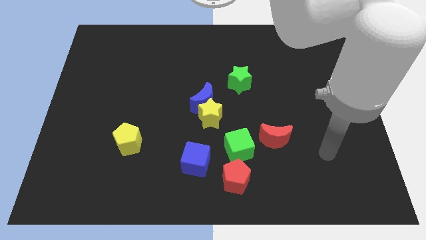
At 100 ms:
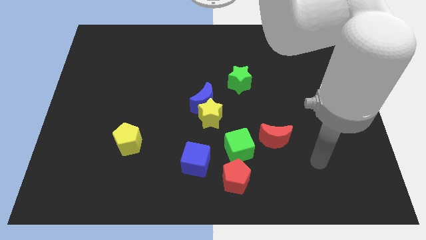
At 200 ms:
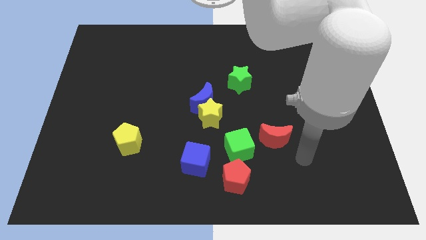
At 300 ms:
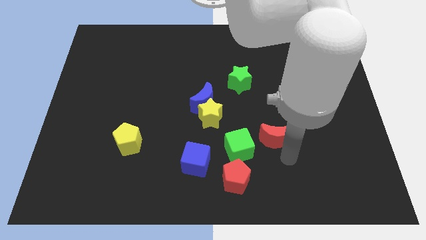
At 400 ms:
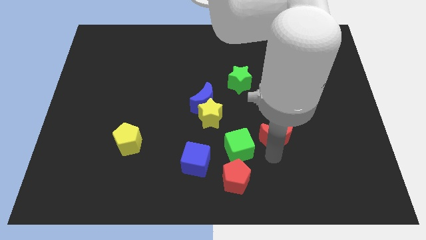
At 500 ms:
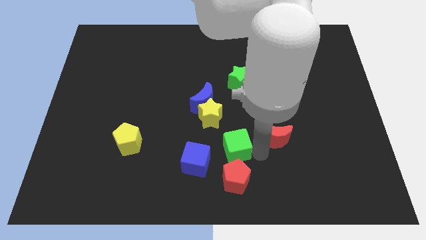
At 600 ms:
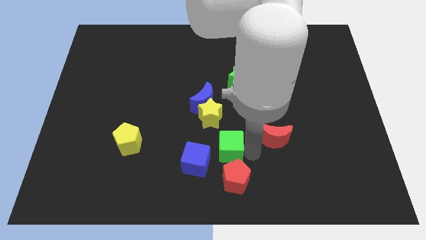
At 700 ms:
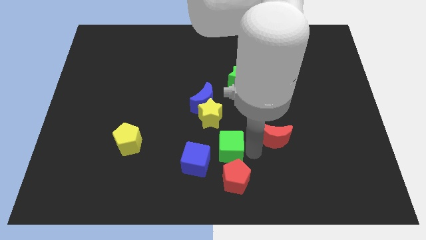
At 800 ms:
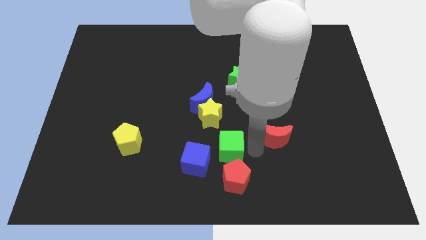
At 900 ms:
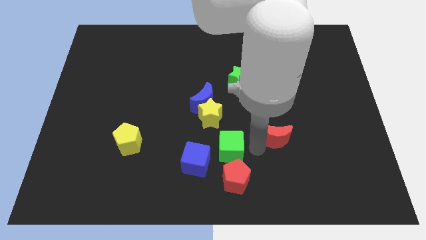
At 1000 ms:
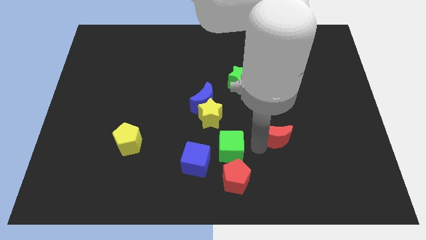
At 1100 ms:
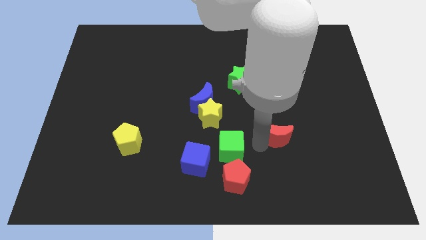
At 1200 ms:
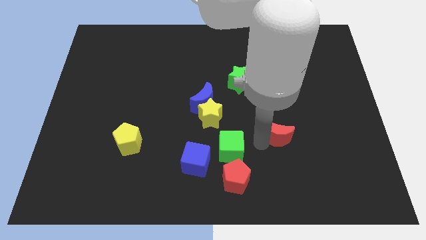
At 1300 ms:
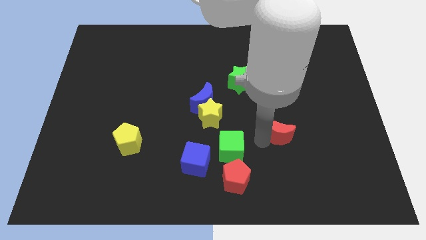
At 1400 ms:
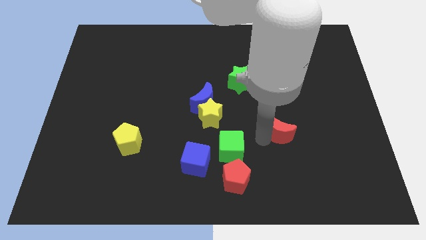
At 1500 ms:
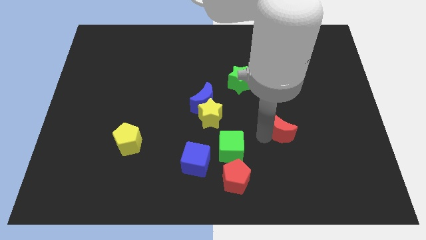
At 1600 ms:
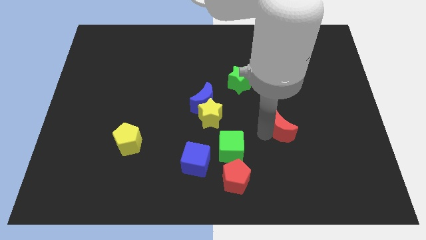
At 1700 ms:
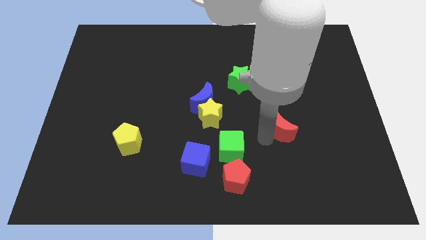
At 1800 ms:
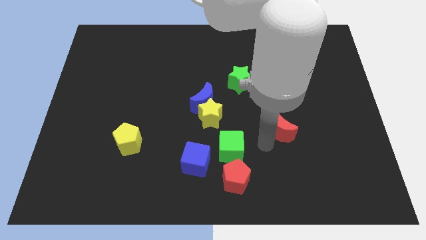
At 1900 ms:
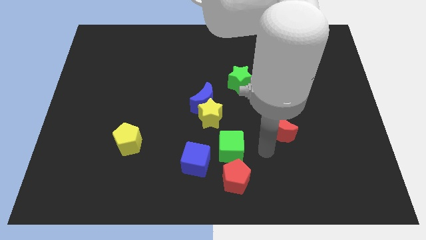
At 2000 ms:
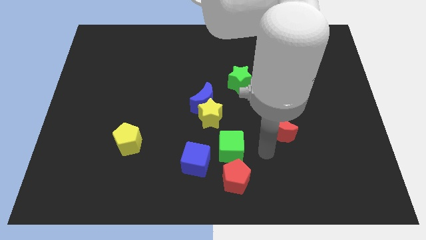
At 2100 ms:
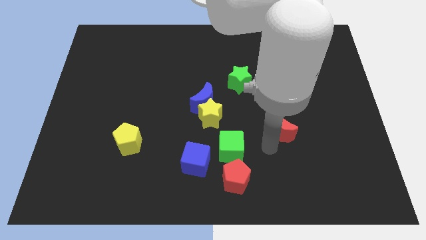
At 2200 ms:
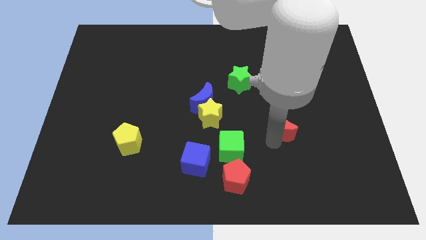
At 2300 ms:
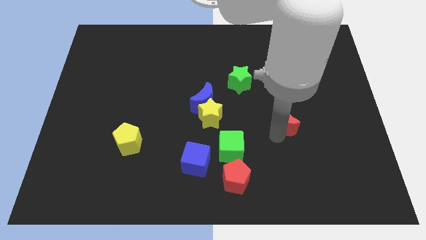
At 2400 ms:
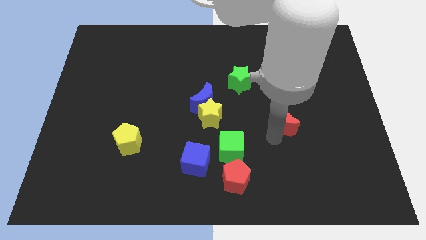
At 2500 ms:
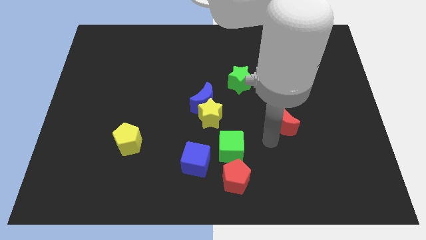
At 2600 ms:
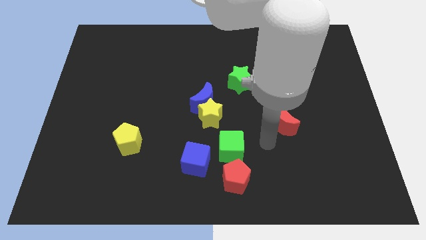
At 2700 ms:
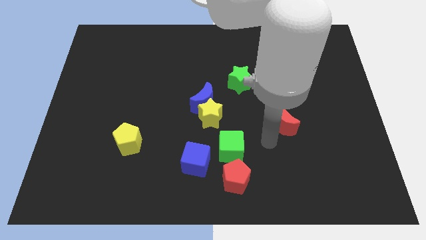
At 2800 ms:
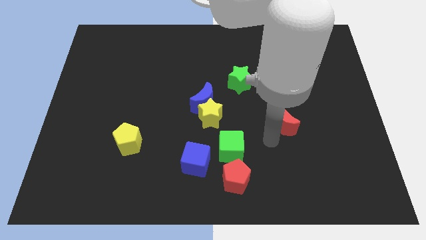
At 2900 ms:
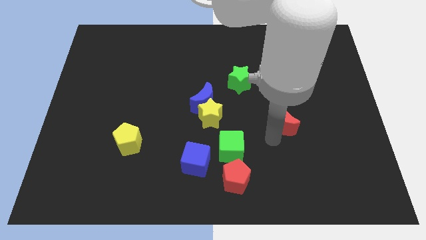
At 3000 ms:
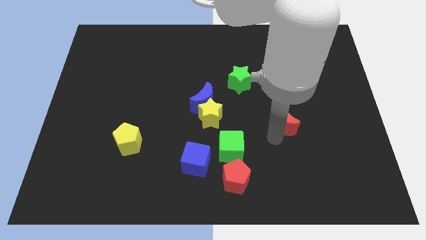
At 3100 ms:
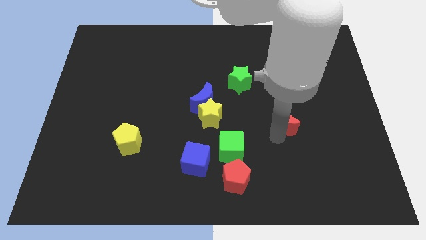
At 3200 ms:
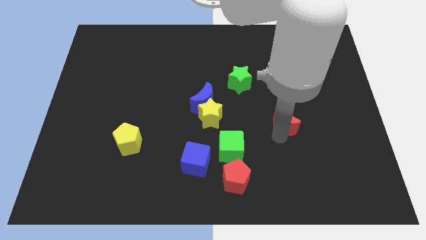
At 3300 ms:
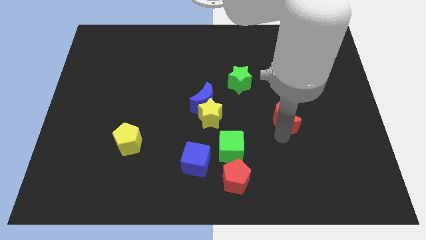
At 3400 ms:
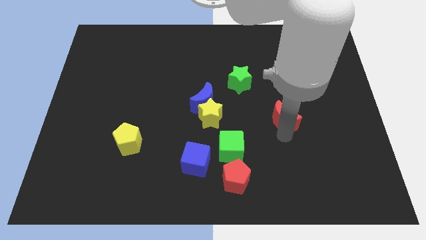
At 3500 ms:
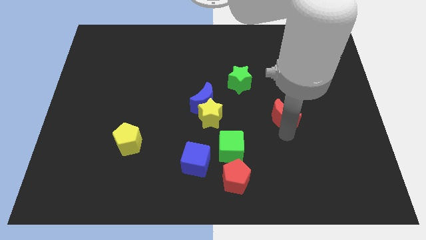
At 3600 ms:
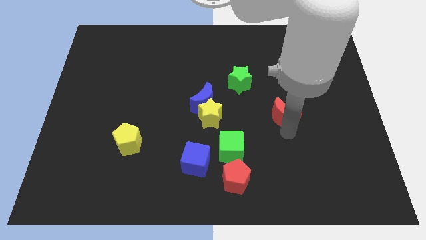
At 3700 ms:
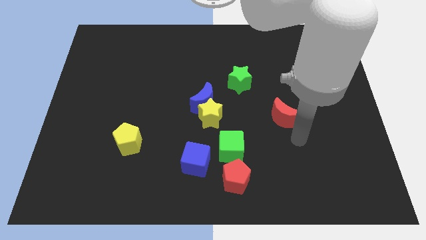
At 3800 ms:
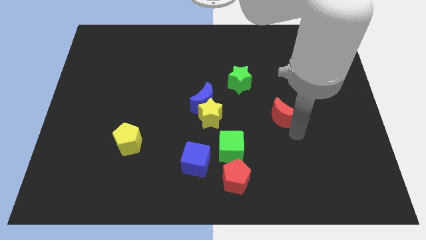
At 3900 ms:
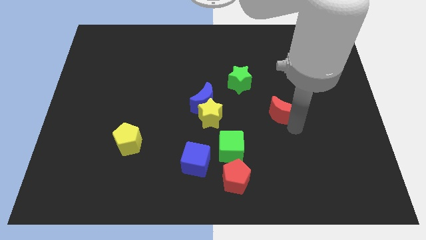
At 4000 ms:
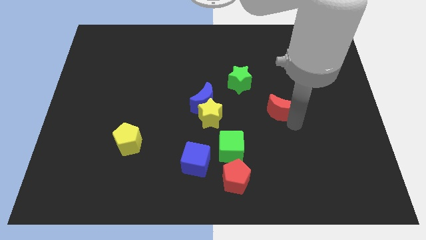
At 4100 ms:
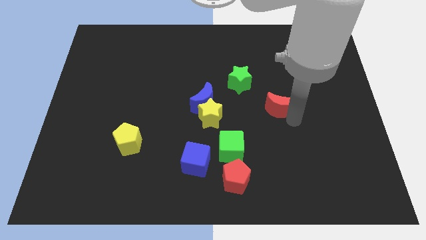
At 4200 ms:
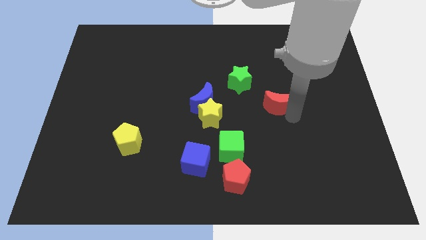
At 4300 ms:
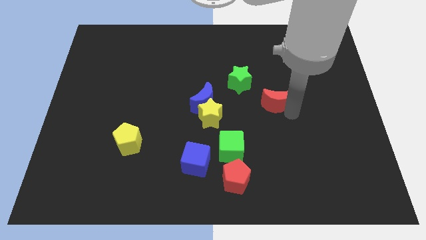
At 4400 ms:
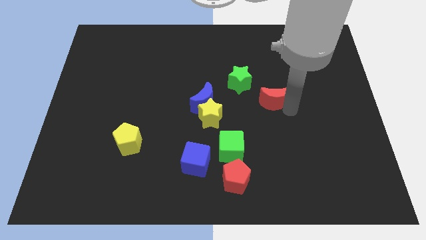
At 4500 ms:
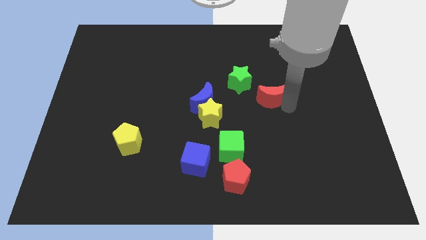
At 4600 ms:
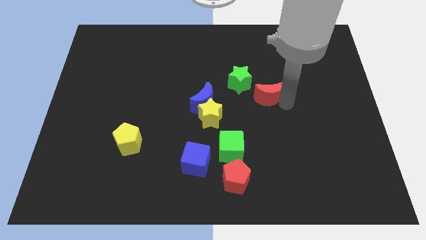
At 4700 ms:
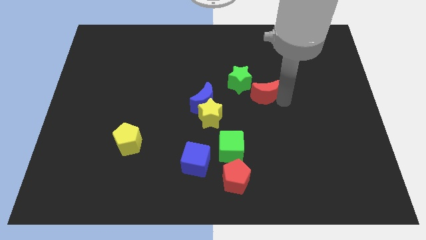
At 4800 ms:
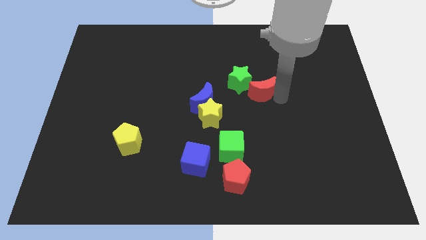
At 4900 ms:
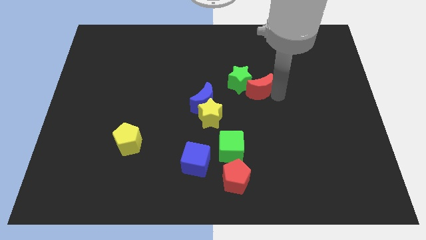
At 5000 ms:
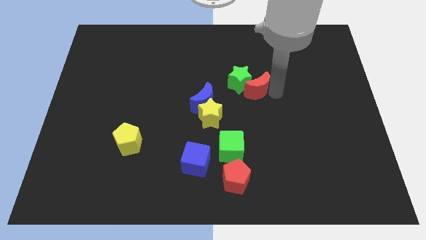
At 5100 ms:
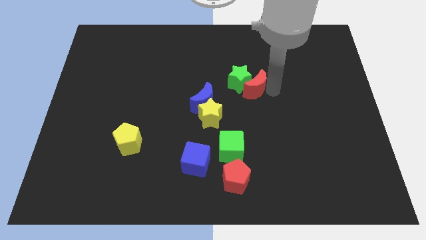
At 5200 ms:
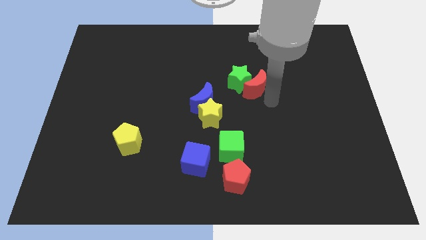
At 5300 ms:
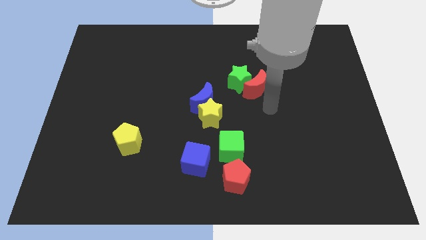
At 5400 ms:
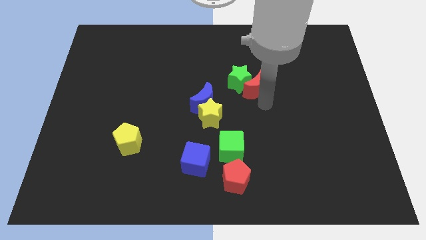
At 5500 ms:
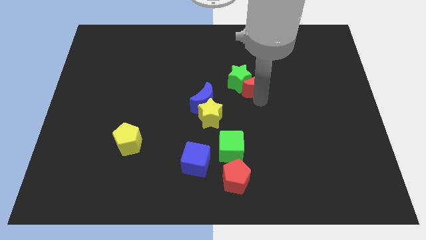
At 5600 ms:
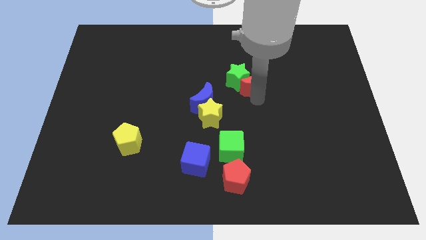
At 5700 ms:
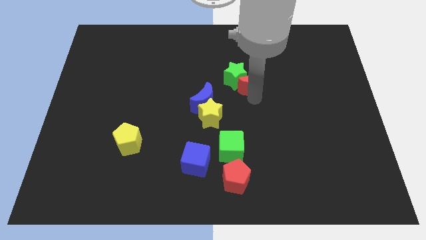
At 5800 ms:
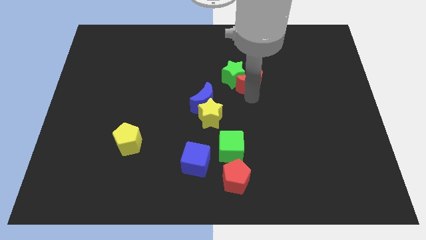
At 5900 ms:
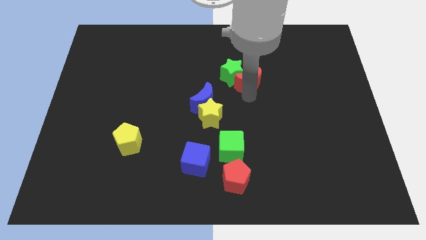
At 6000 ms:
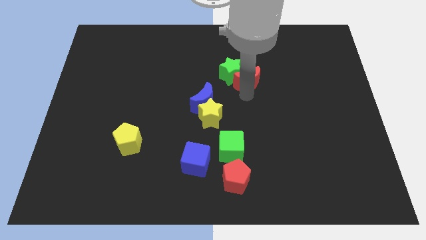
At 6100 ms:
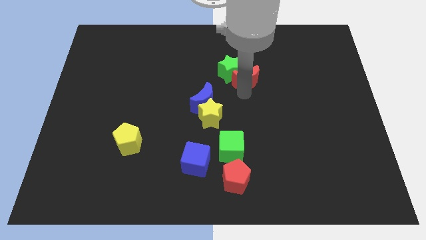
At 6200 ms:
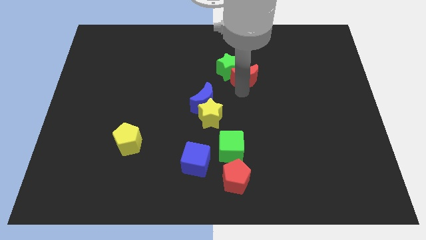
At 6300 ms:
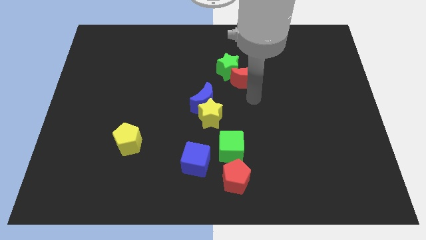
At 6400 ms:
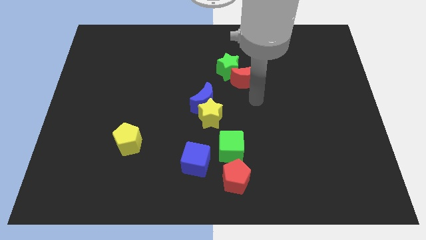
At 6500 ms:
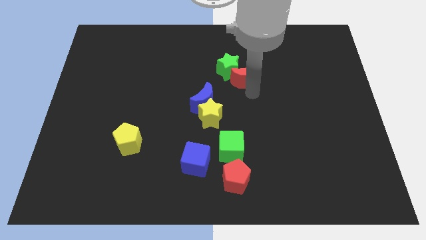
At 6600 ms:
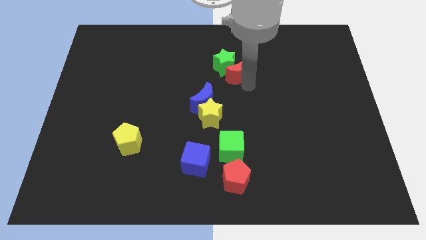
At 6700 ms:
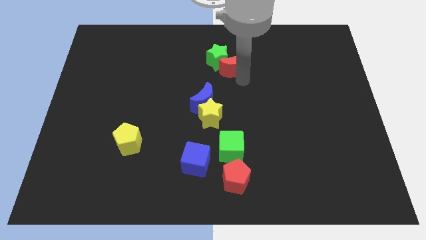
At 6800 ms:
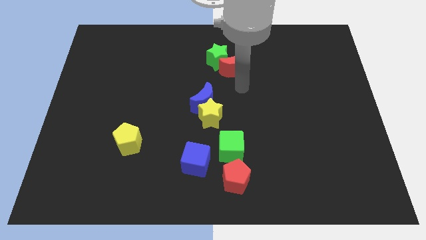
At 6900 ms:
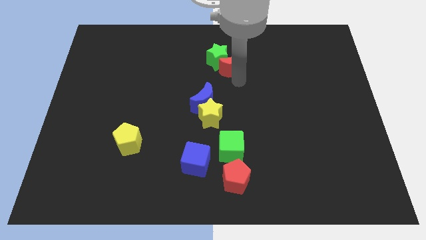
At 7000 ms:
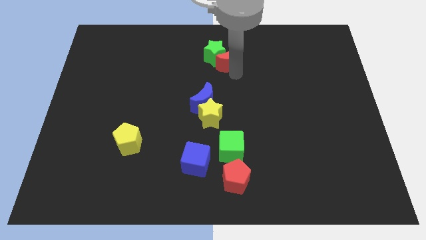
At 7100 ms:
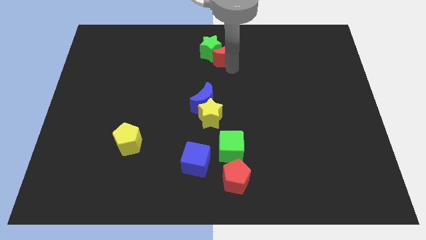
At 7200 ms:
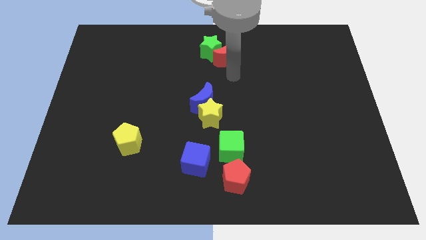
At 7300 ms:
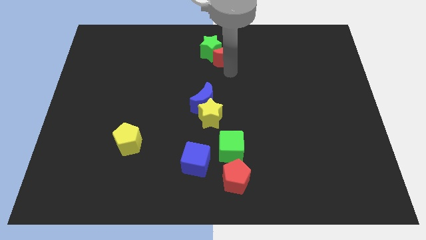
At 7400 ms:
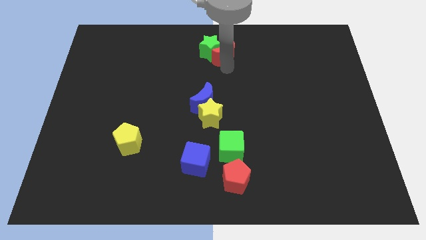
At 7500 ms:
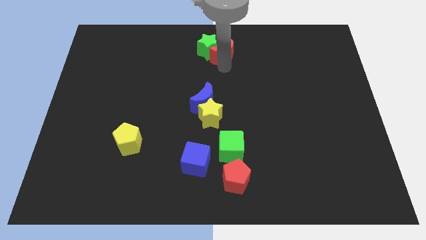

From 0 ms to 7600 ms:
push the red moon to the top side
